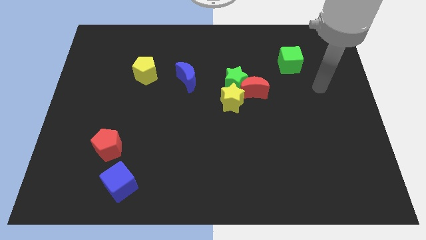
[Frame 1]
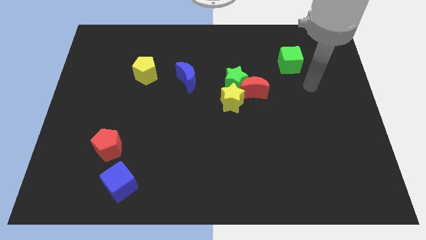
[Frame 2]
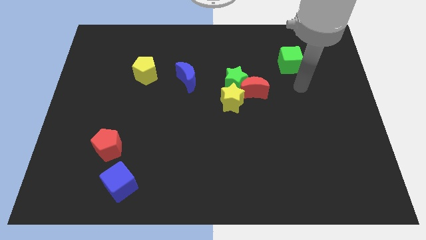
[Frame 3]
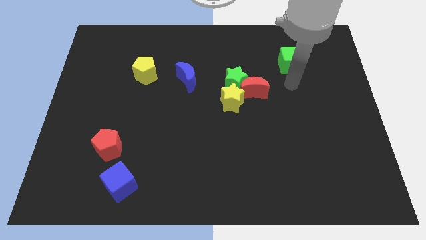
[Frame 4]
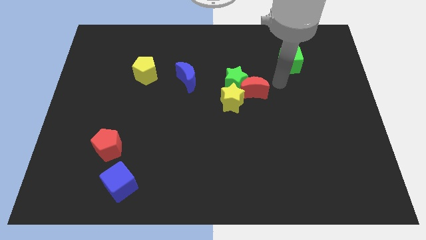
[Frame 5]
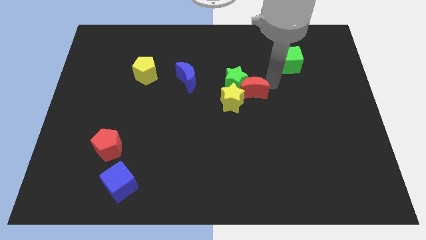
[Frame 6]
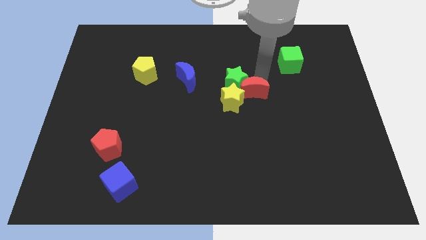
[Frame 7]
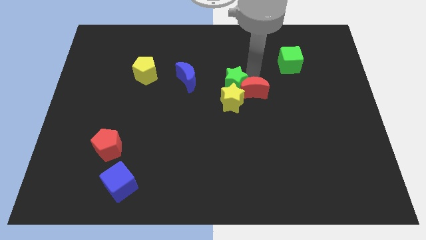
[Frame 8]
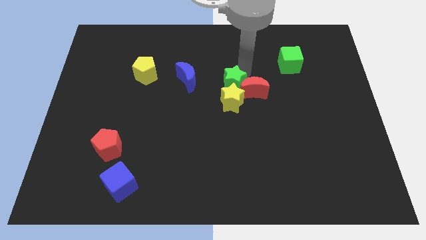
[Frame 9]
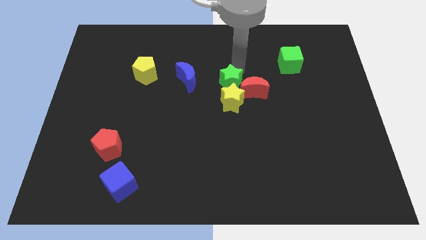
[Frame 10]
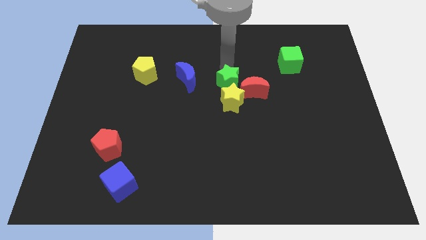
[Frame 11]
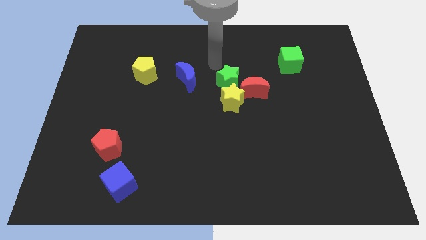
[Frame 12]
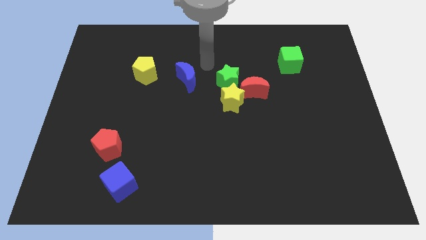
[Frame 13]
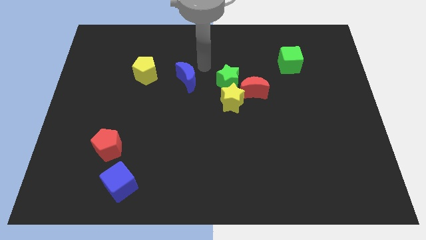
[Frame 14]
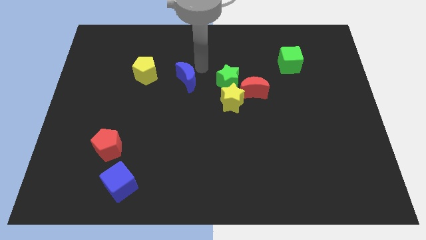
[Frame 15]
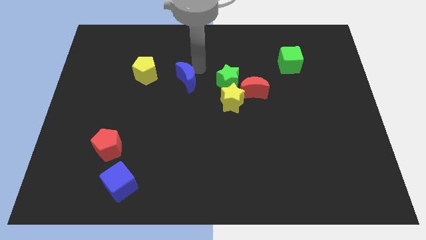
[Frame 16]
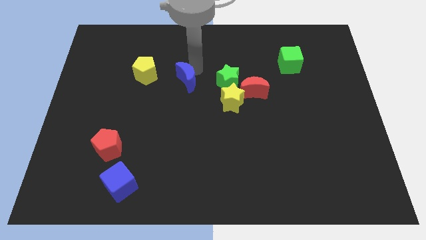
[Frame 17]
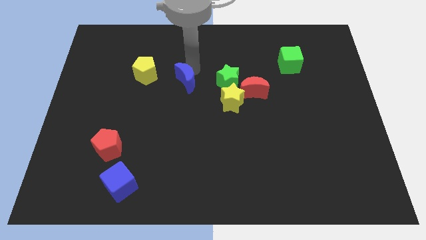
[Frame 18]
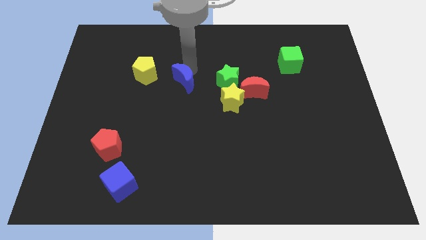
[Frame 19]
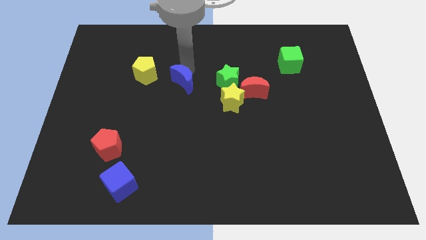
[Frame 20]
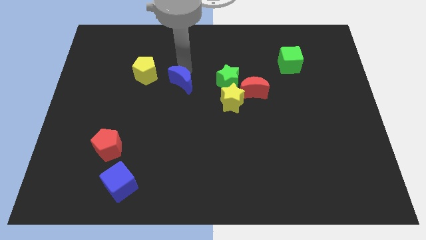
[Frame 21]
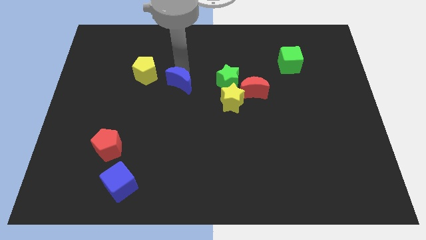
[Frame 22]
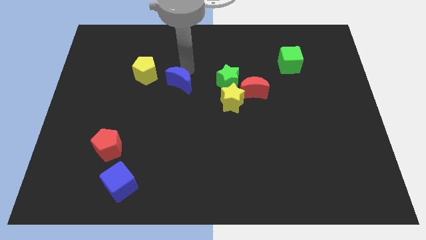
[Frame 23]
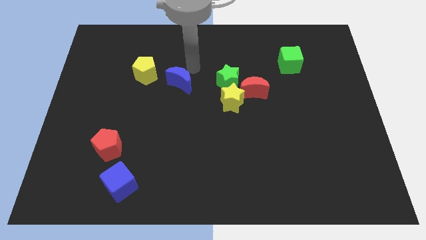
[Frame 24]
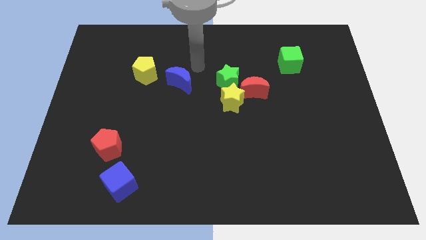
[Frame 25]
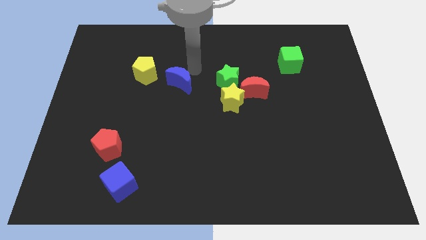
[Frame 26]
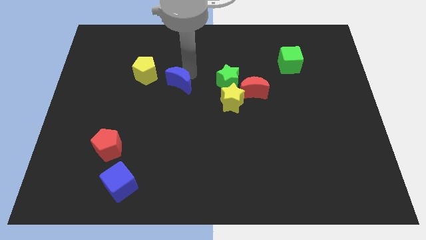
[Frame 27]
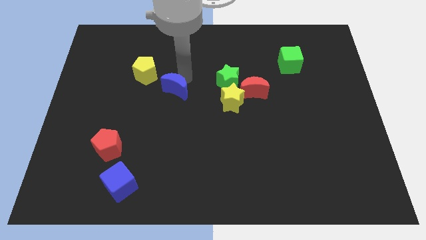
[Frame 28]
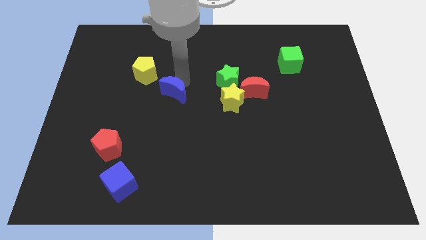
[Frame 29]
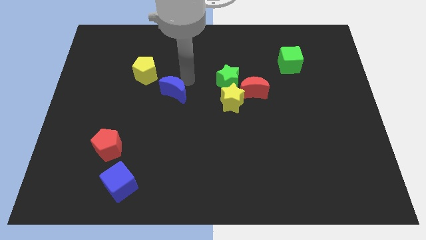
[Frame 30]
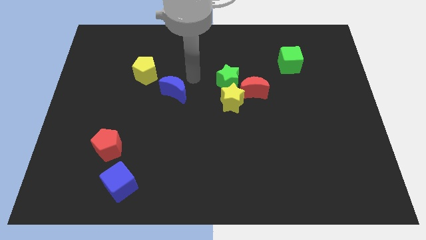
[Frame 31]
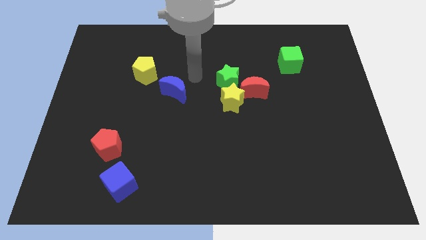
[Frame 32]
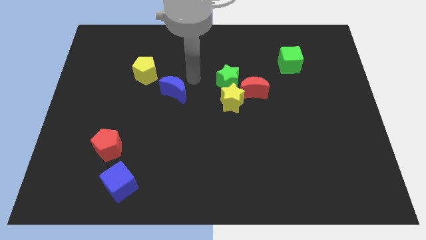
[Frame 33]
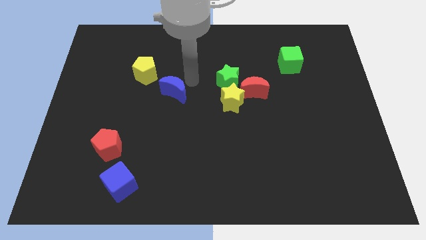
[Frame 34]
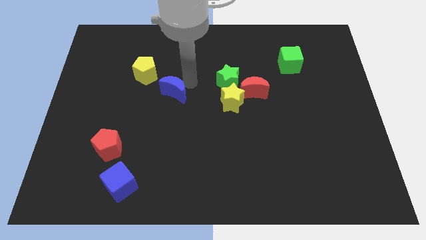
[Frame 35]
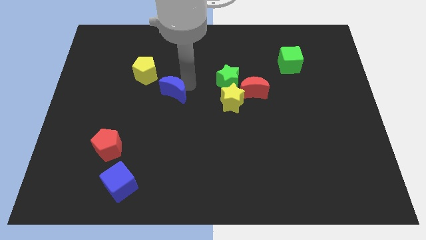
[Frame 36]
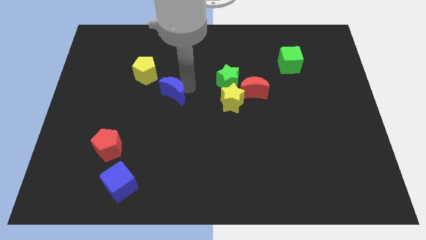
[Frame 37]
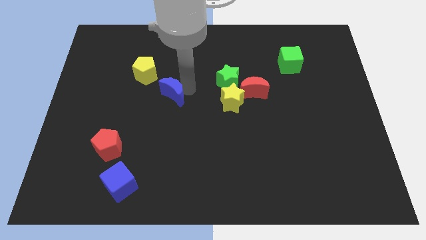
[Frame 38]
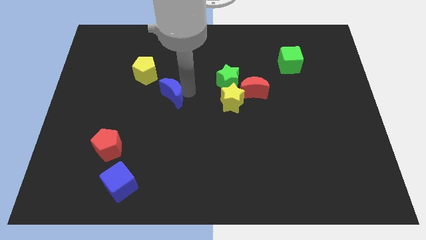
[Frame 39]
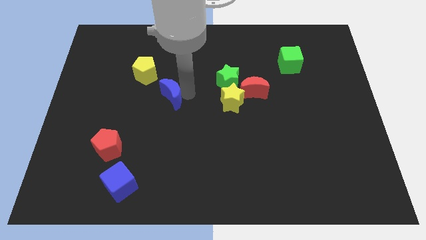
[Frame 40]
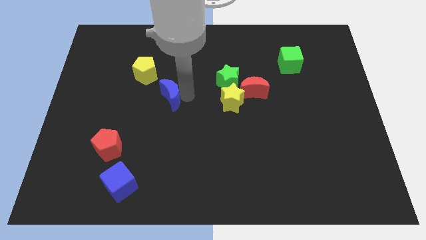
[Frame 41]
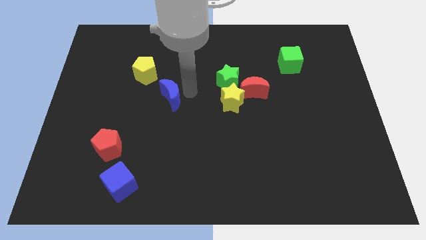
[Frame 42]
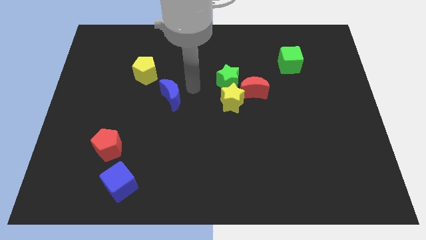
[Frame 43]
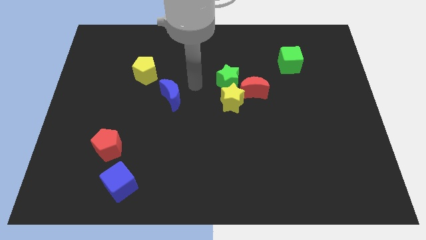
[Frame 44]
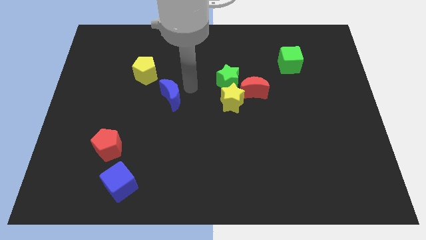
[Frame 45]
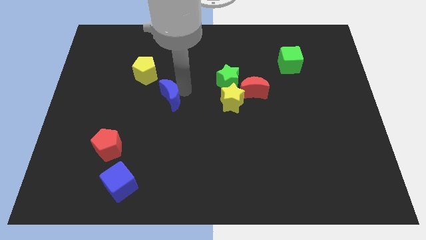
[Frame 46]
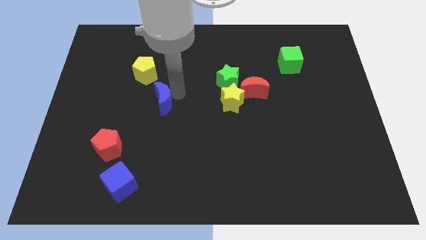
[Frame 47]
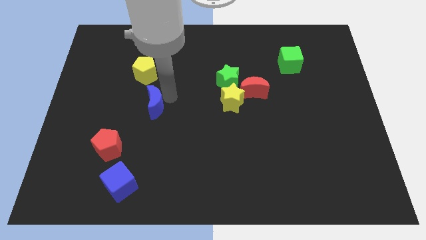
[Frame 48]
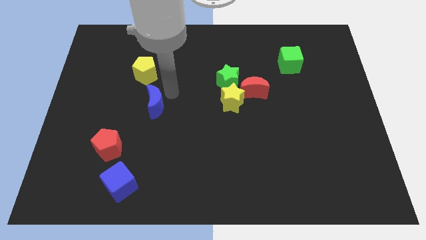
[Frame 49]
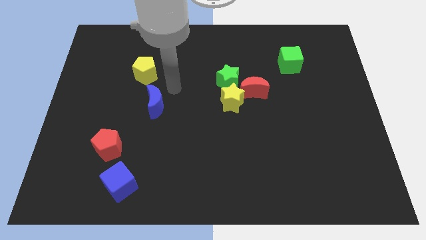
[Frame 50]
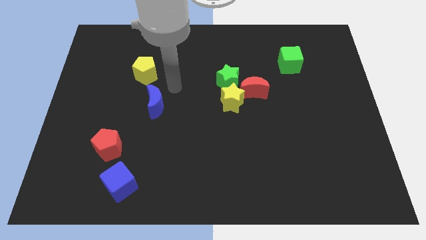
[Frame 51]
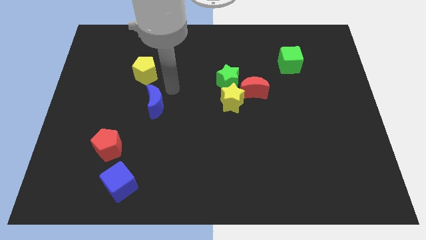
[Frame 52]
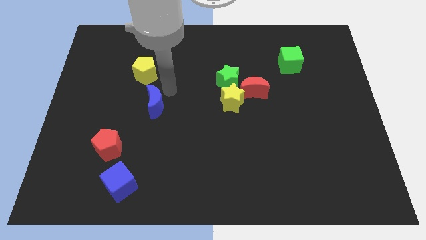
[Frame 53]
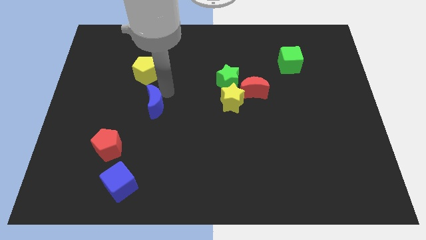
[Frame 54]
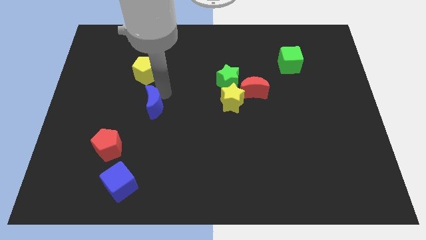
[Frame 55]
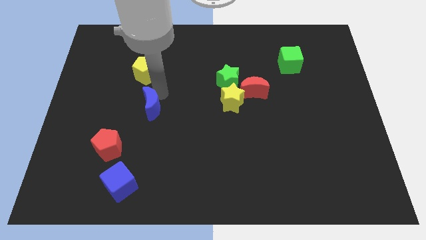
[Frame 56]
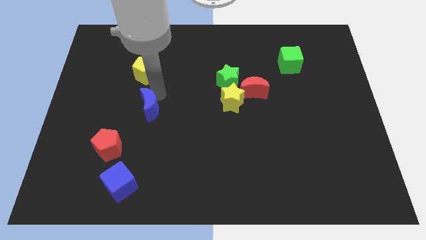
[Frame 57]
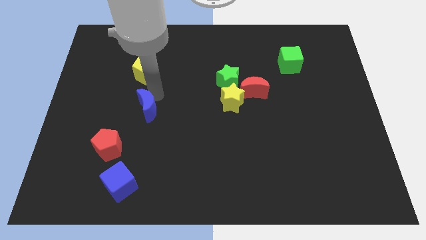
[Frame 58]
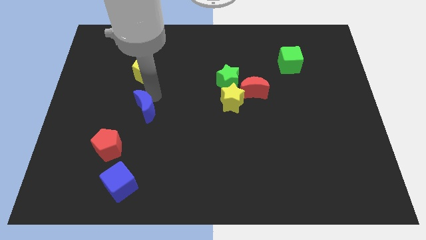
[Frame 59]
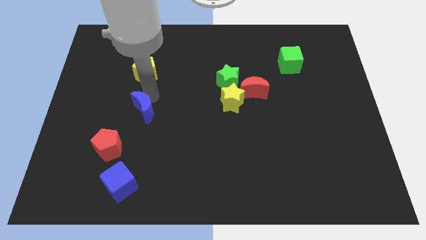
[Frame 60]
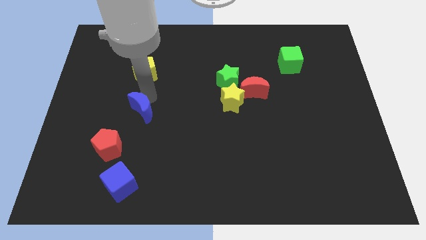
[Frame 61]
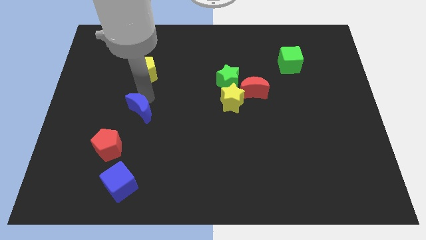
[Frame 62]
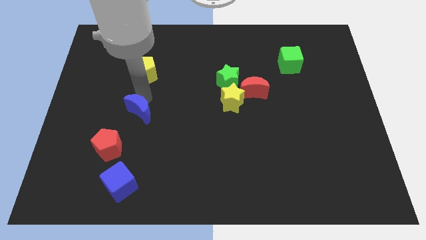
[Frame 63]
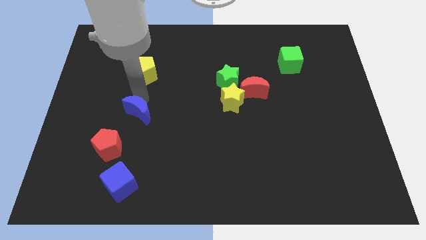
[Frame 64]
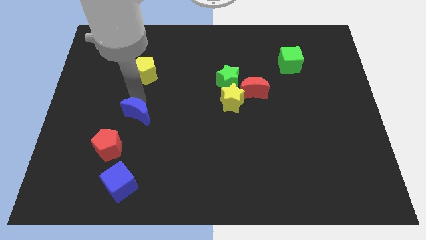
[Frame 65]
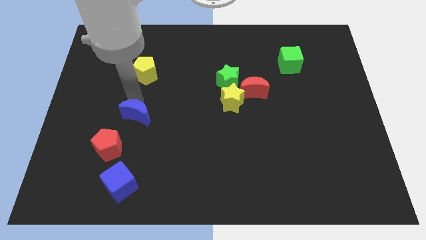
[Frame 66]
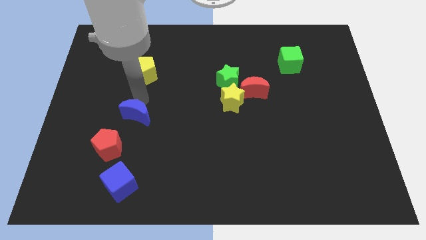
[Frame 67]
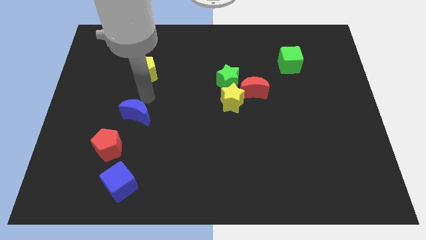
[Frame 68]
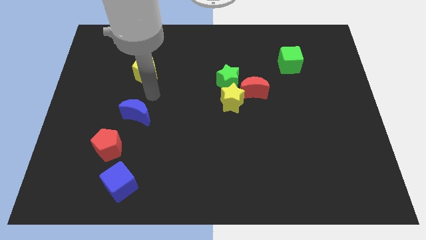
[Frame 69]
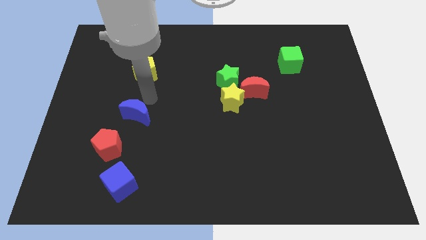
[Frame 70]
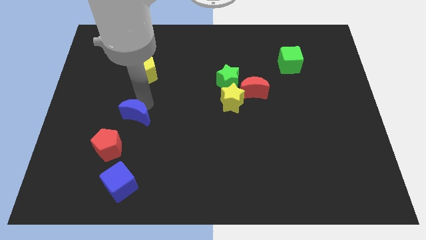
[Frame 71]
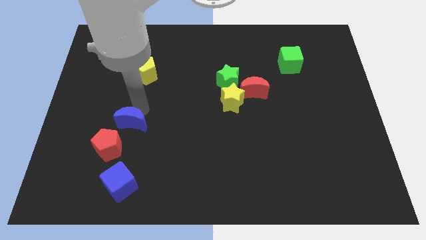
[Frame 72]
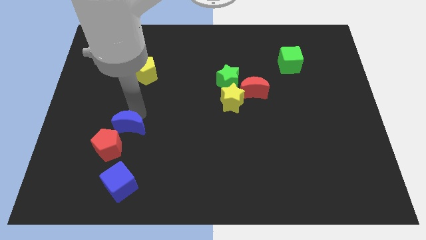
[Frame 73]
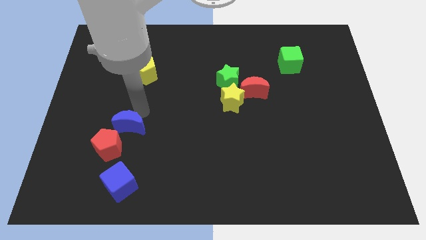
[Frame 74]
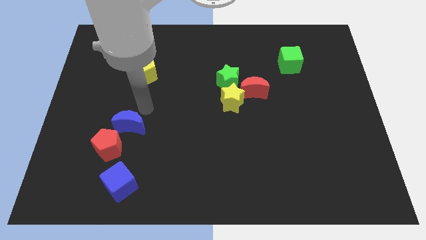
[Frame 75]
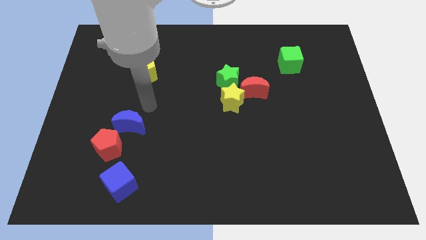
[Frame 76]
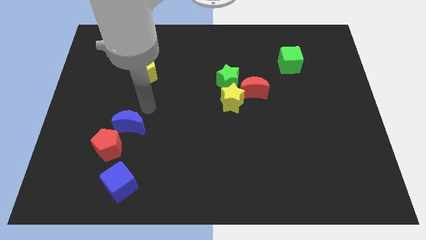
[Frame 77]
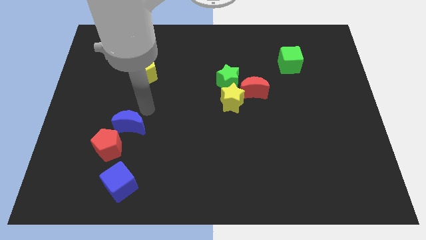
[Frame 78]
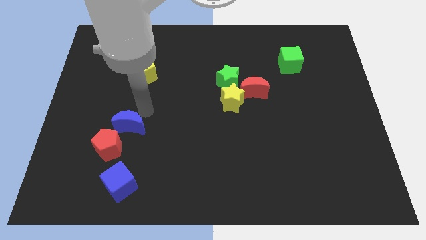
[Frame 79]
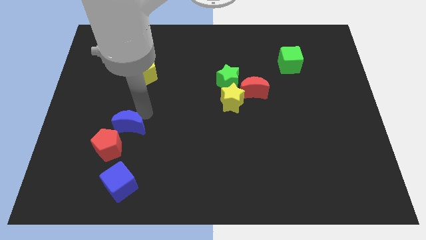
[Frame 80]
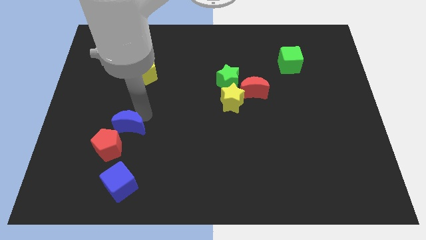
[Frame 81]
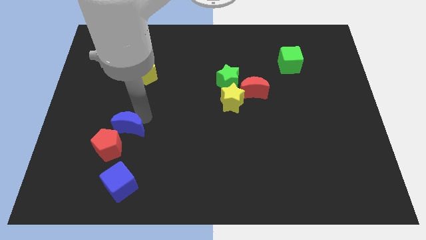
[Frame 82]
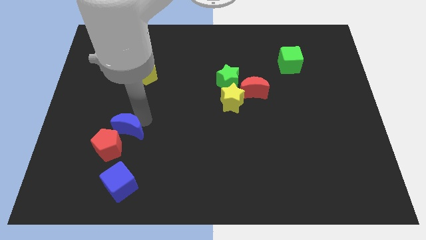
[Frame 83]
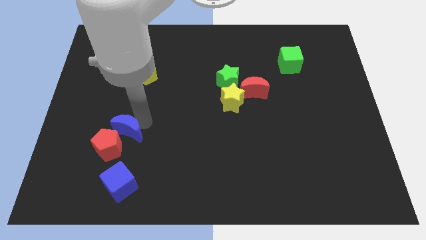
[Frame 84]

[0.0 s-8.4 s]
move the blue moon next to the red pentagon
